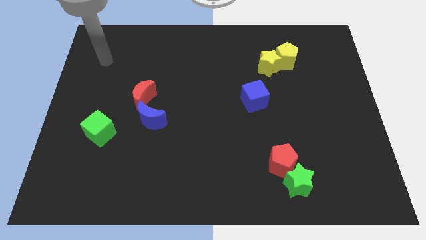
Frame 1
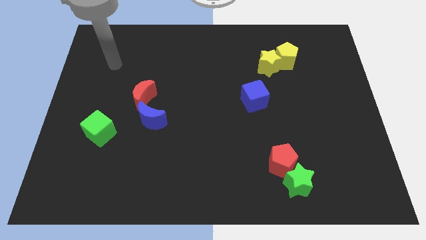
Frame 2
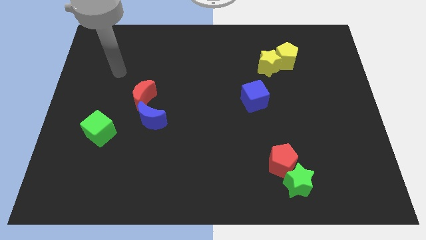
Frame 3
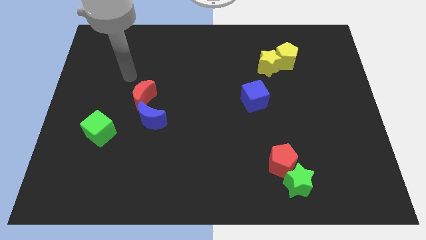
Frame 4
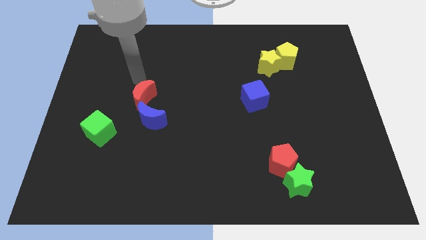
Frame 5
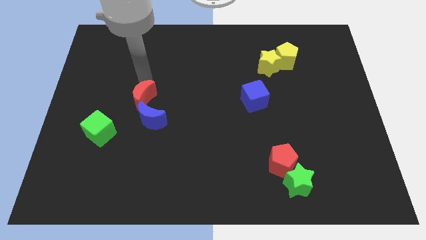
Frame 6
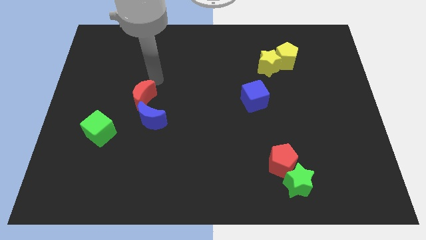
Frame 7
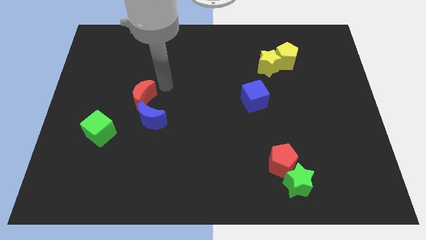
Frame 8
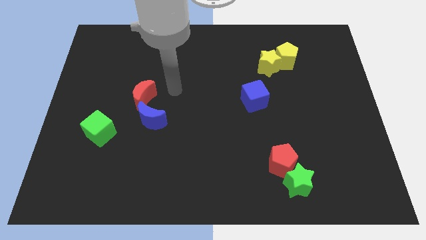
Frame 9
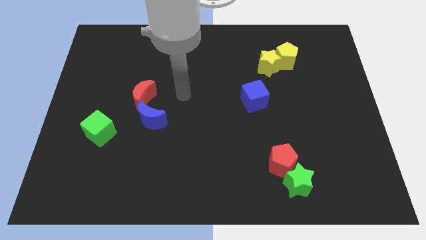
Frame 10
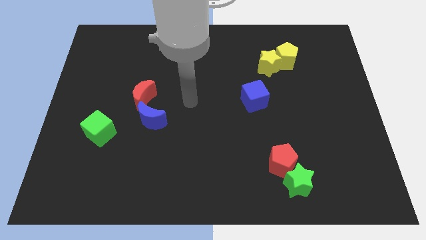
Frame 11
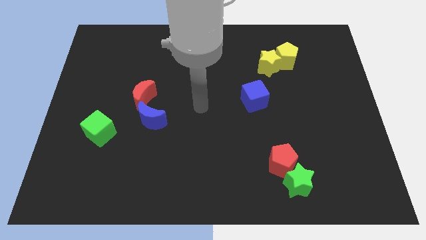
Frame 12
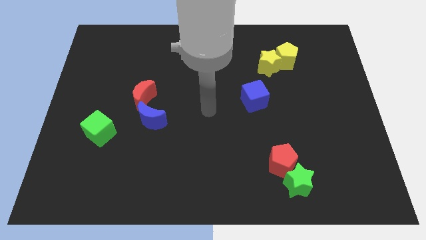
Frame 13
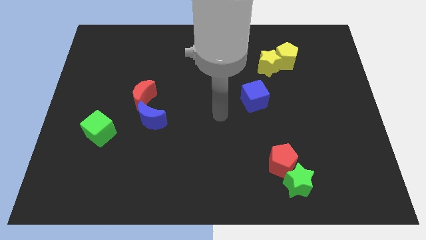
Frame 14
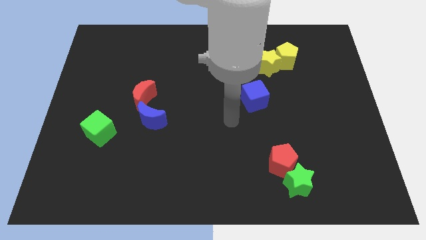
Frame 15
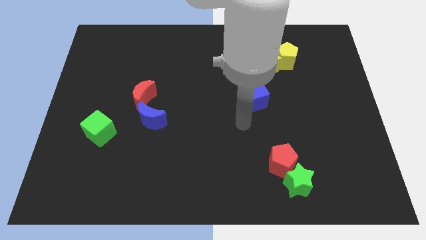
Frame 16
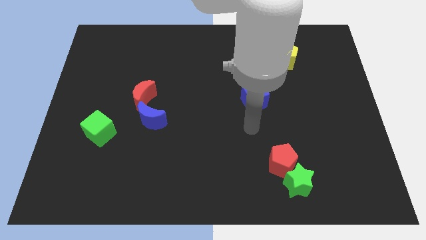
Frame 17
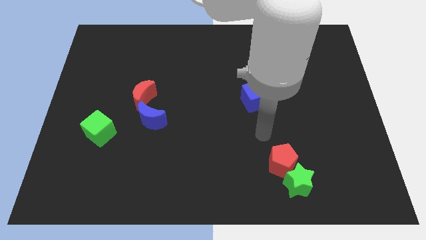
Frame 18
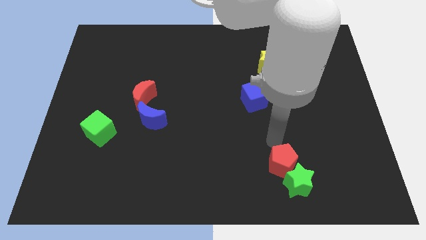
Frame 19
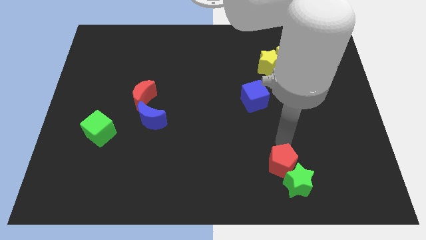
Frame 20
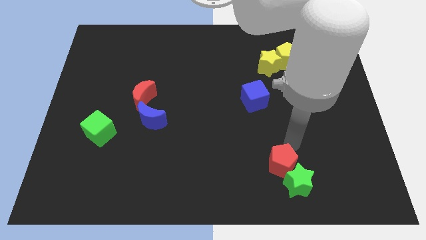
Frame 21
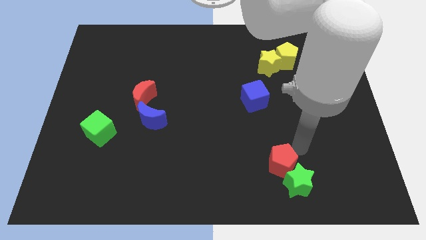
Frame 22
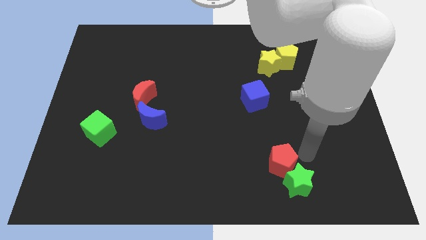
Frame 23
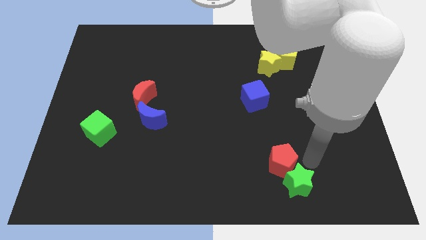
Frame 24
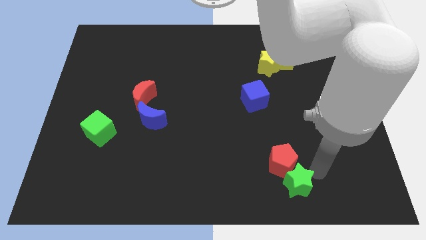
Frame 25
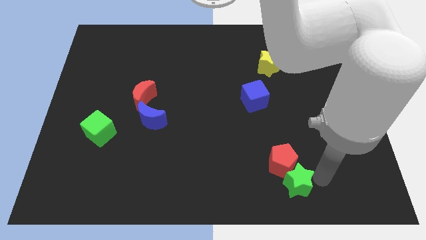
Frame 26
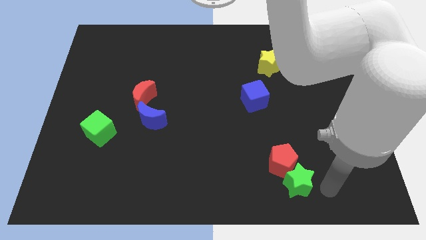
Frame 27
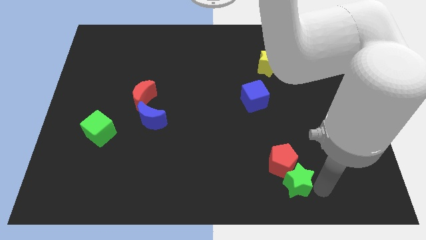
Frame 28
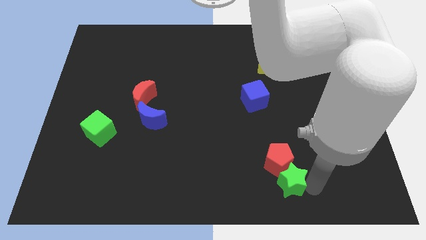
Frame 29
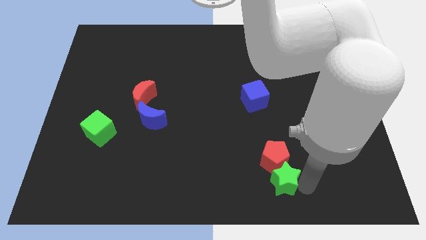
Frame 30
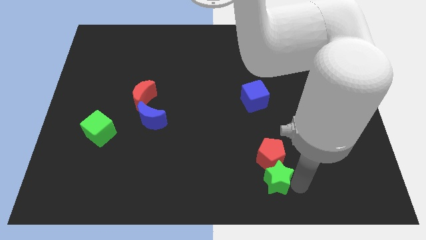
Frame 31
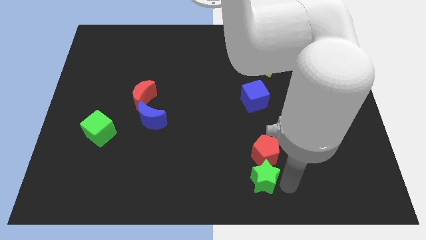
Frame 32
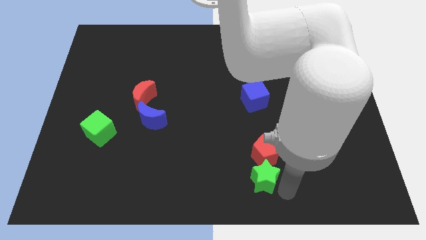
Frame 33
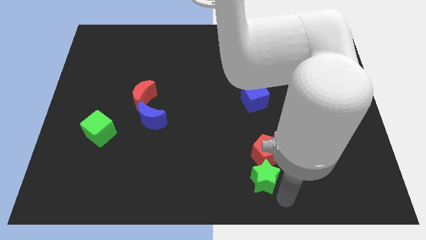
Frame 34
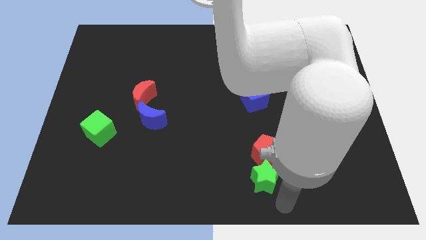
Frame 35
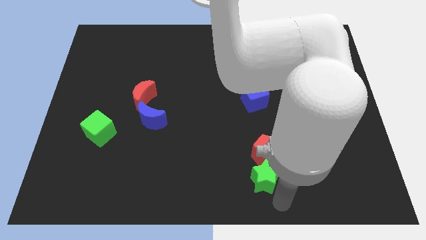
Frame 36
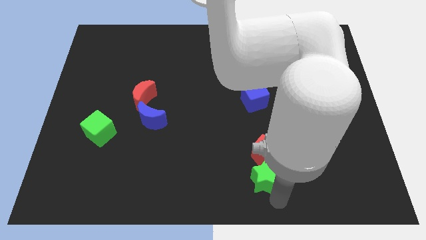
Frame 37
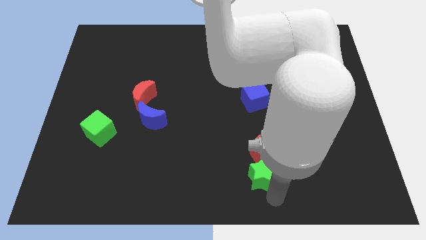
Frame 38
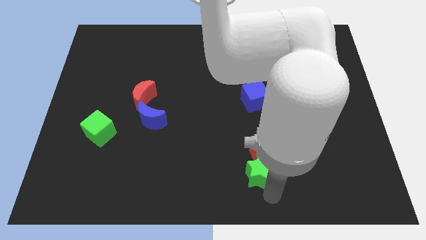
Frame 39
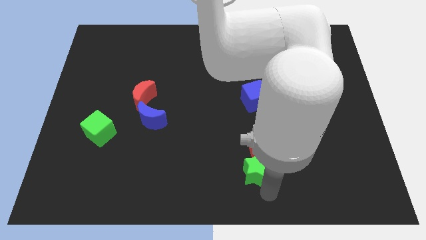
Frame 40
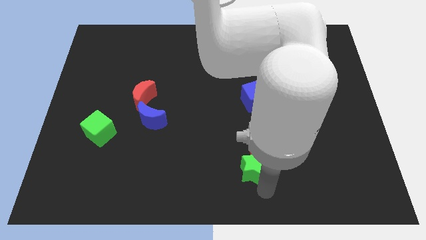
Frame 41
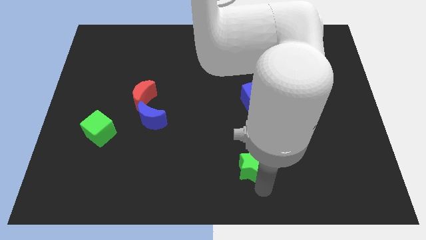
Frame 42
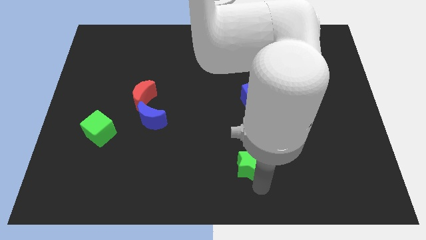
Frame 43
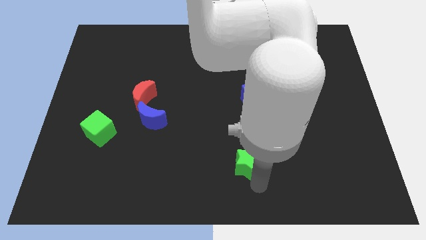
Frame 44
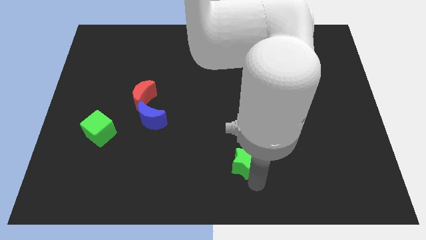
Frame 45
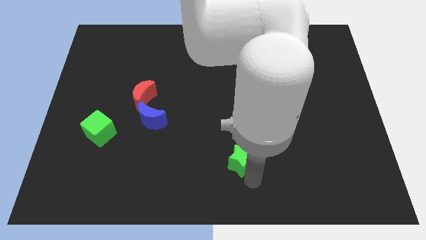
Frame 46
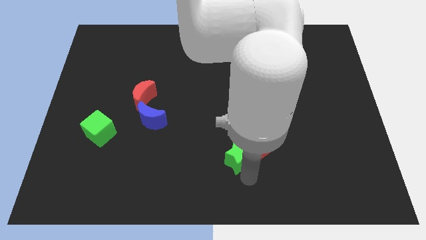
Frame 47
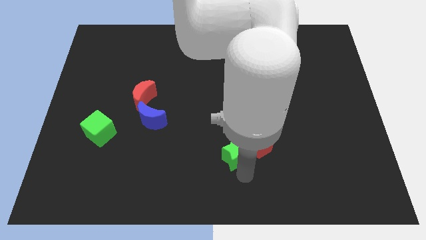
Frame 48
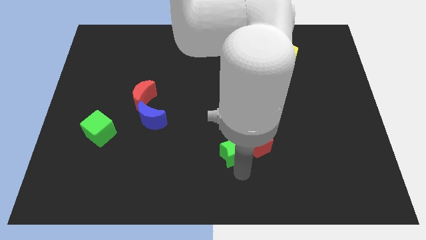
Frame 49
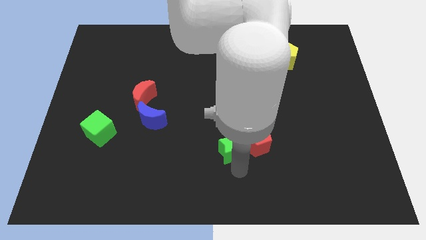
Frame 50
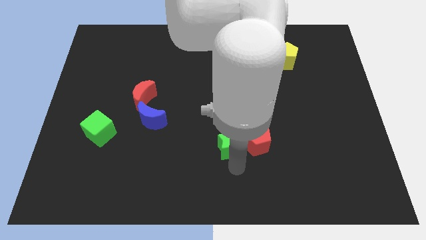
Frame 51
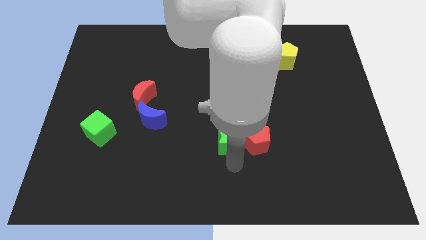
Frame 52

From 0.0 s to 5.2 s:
push the green star to the middle of the board
